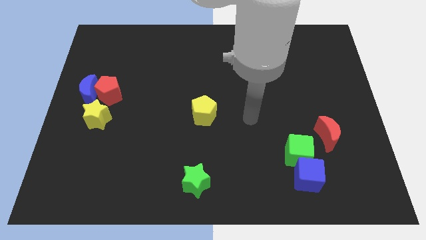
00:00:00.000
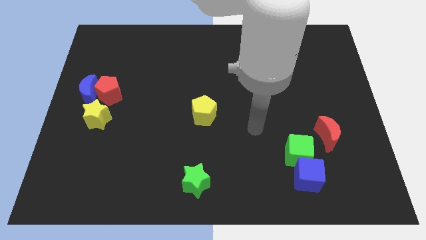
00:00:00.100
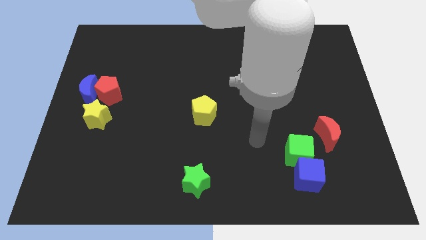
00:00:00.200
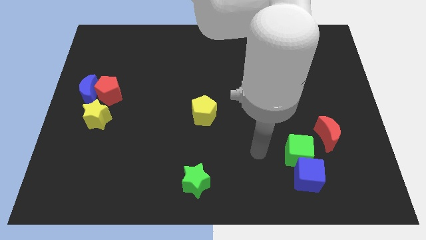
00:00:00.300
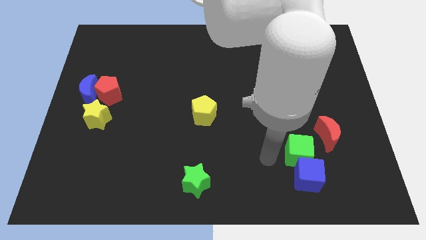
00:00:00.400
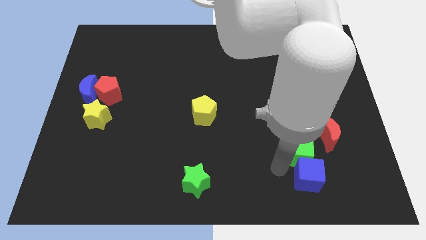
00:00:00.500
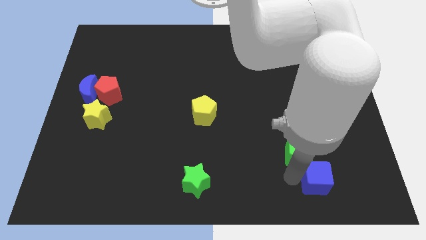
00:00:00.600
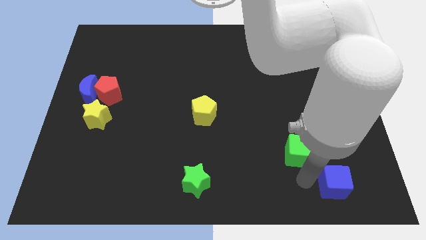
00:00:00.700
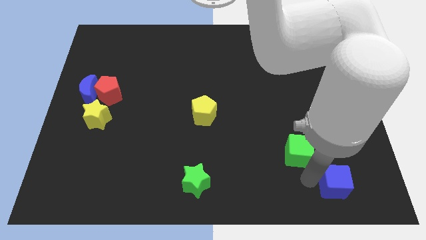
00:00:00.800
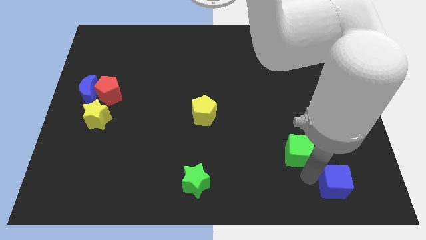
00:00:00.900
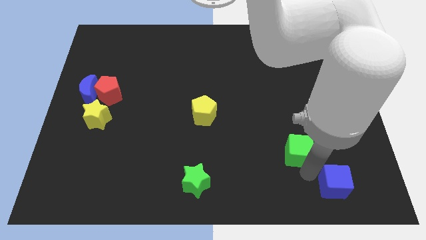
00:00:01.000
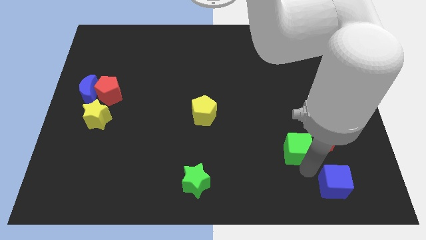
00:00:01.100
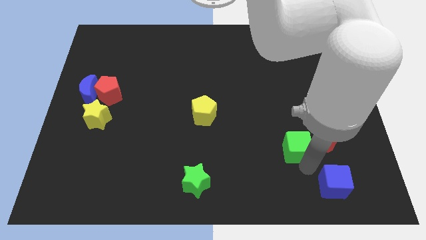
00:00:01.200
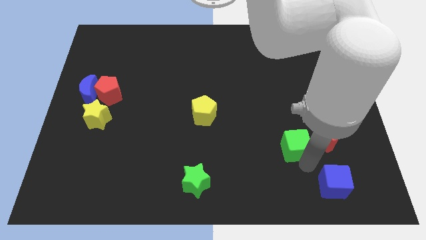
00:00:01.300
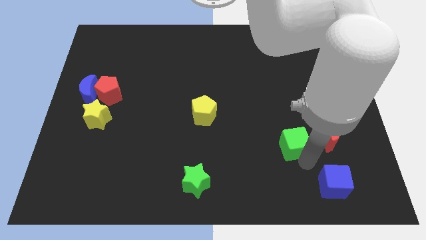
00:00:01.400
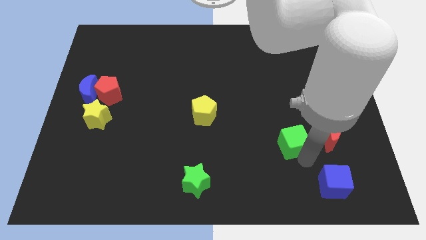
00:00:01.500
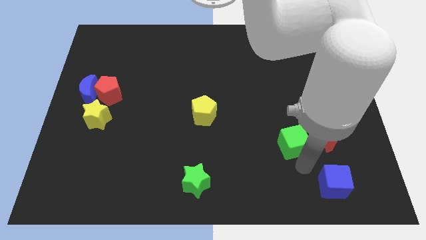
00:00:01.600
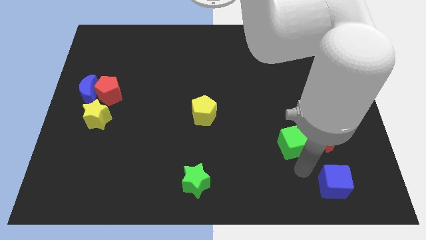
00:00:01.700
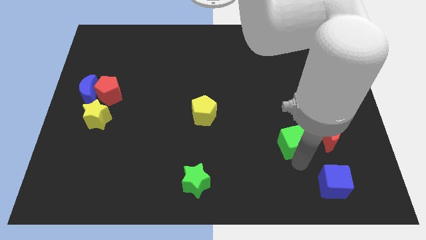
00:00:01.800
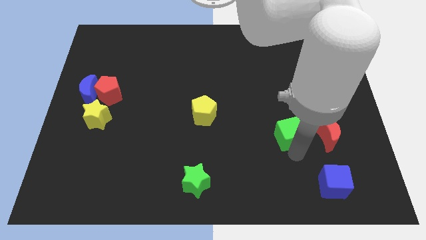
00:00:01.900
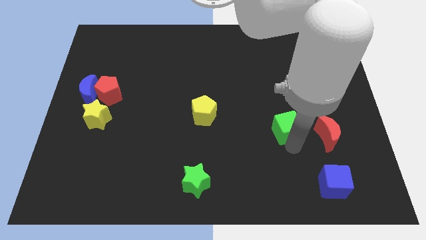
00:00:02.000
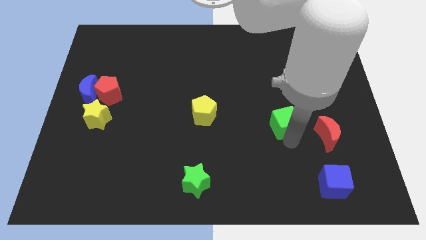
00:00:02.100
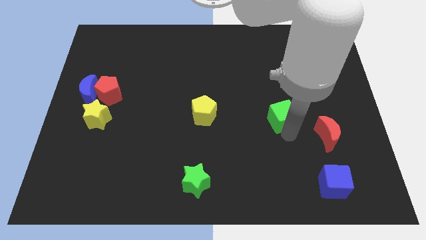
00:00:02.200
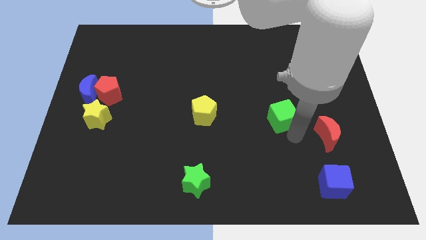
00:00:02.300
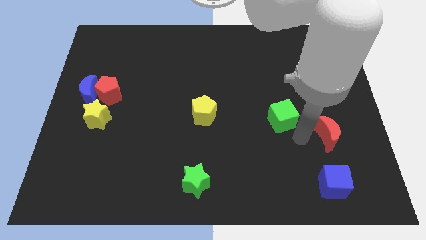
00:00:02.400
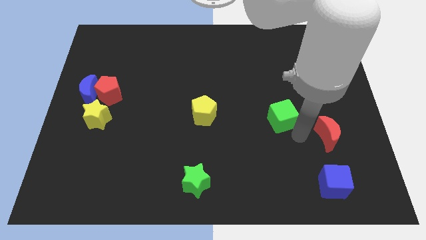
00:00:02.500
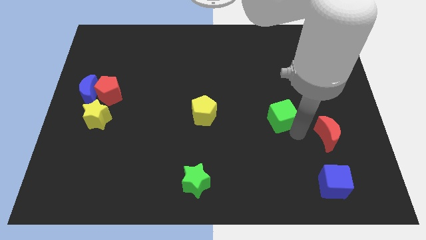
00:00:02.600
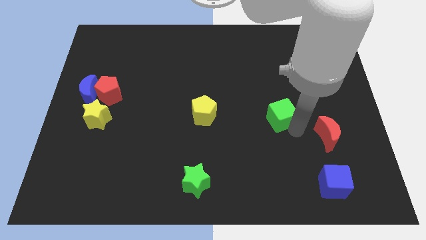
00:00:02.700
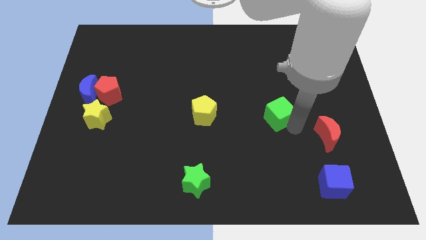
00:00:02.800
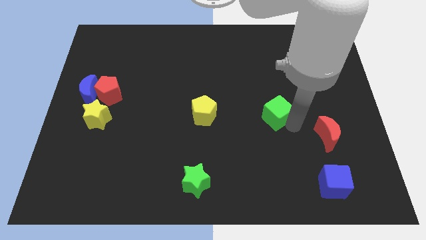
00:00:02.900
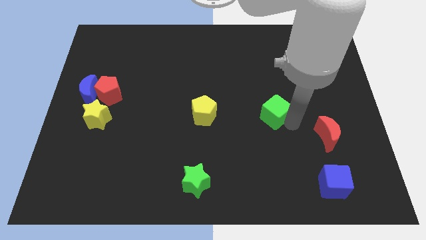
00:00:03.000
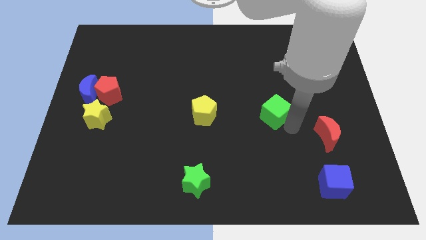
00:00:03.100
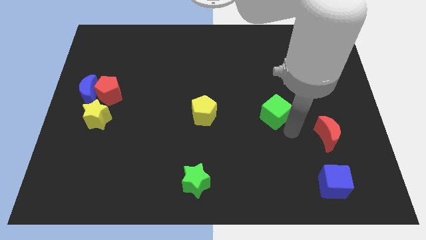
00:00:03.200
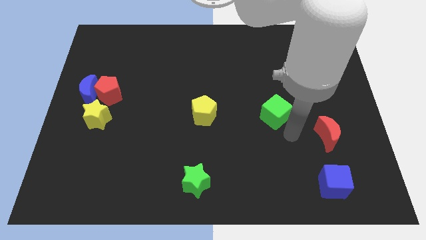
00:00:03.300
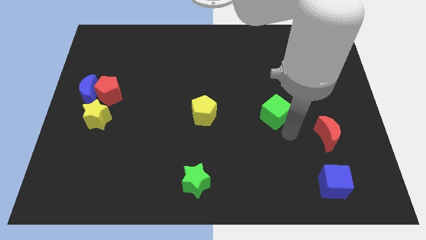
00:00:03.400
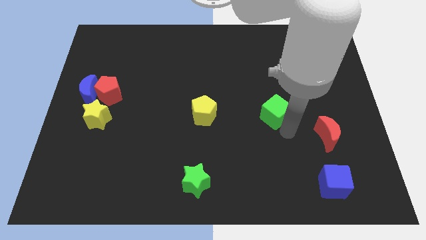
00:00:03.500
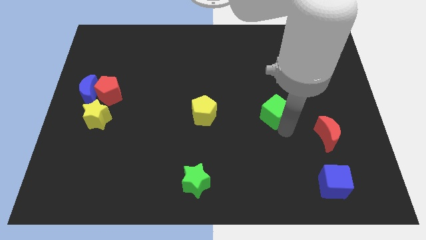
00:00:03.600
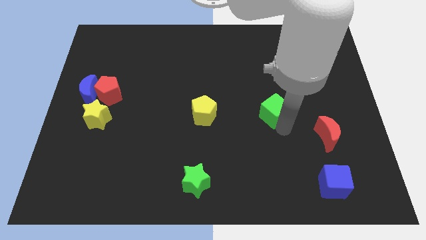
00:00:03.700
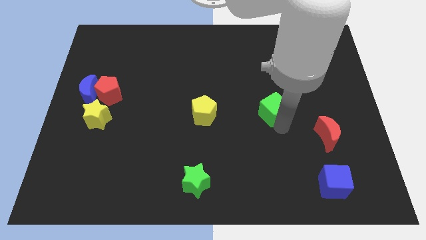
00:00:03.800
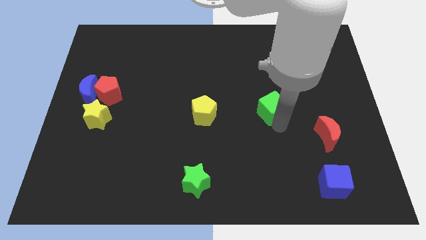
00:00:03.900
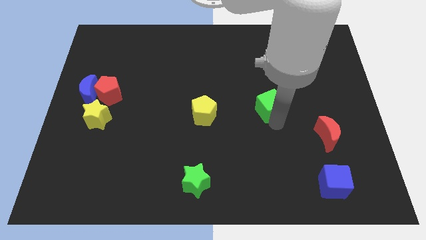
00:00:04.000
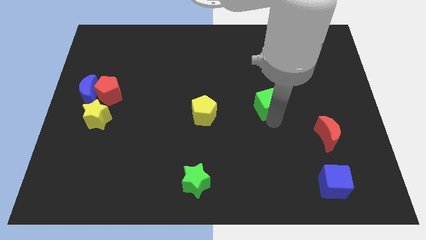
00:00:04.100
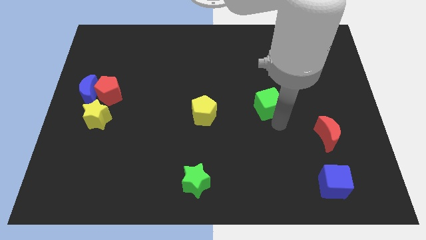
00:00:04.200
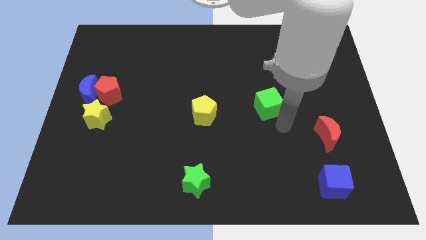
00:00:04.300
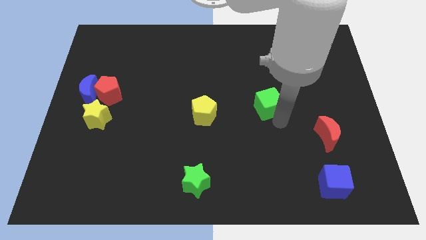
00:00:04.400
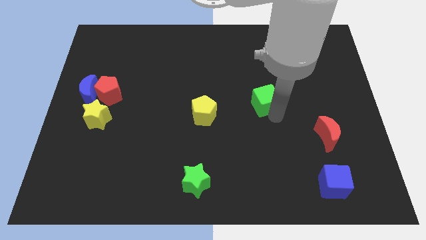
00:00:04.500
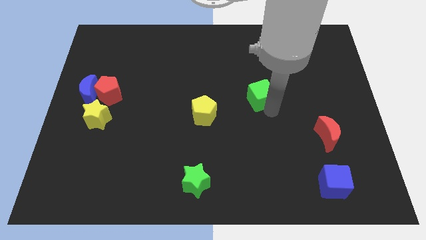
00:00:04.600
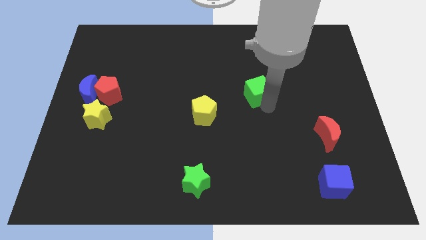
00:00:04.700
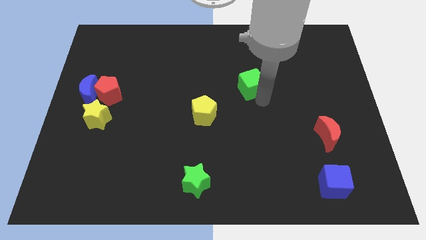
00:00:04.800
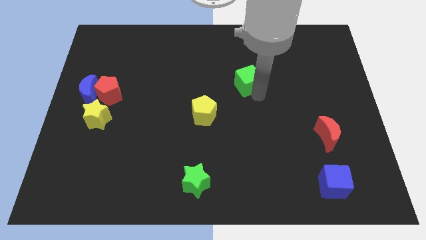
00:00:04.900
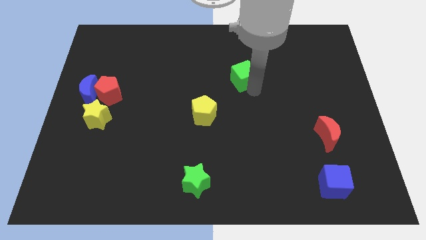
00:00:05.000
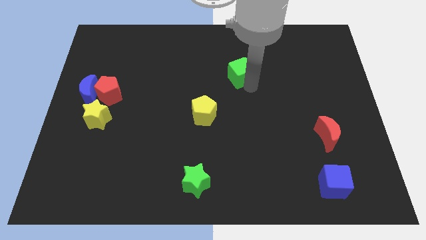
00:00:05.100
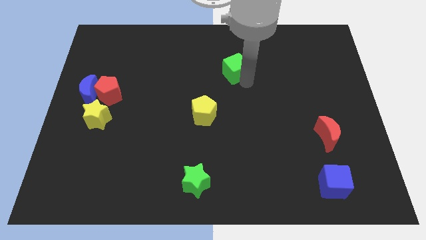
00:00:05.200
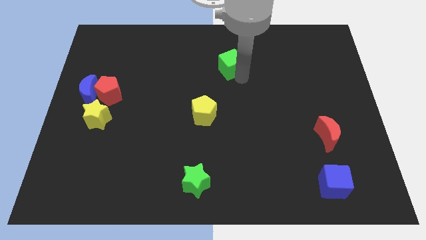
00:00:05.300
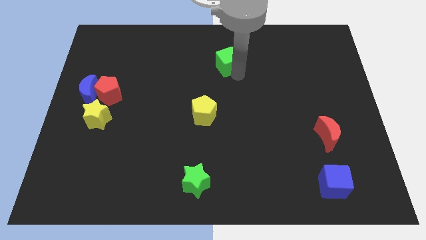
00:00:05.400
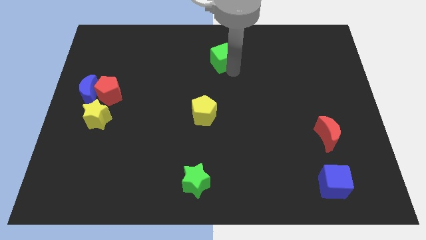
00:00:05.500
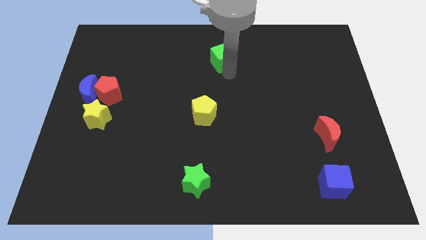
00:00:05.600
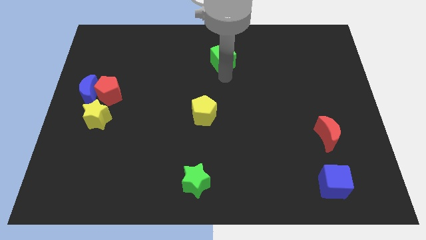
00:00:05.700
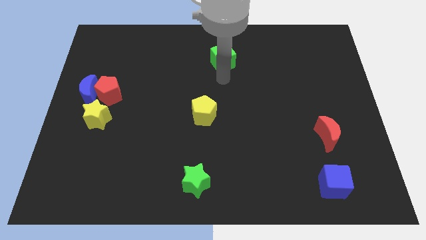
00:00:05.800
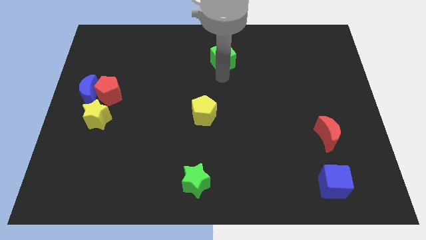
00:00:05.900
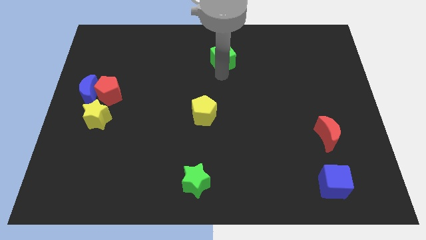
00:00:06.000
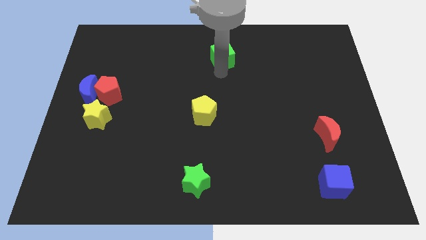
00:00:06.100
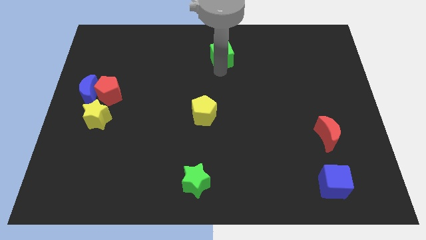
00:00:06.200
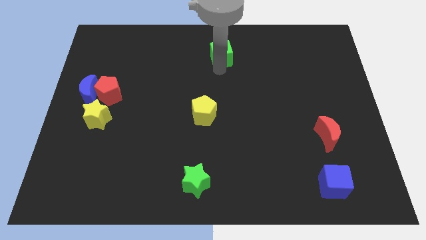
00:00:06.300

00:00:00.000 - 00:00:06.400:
slide the green cube to the towards your base

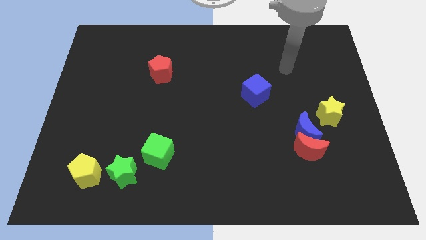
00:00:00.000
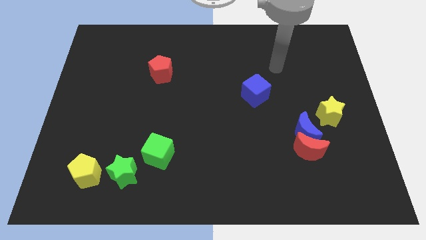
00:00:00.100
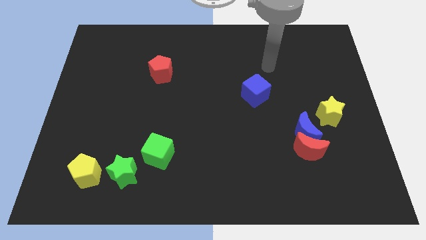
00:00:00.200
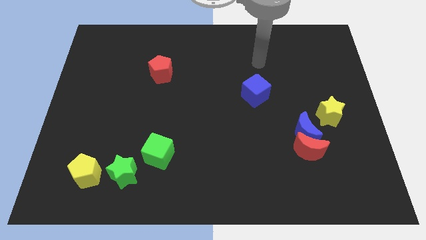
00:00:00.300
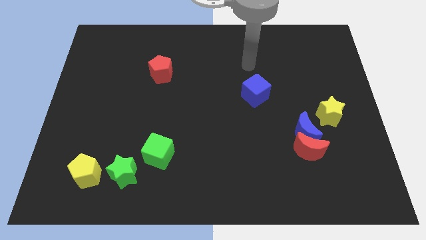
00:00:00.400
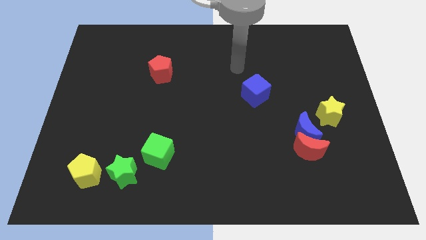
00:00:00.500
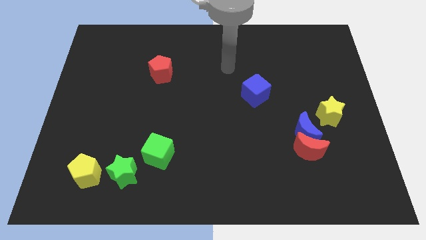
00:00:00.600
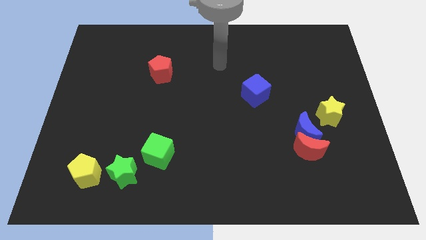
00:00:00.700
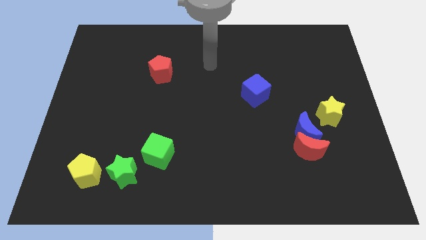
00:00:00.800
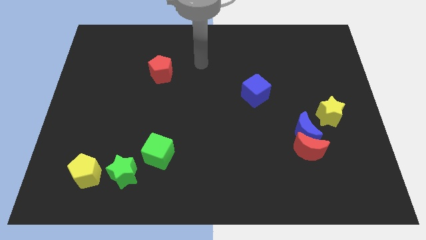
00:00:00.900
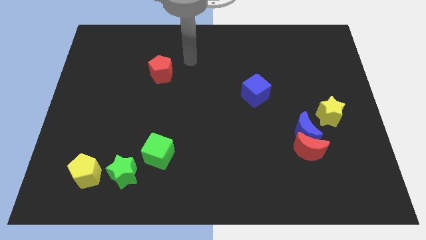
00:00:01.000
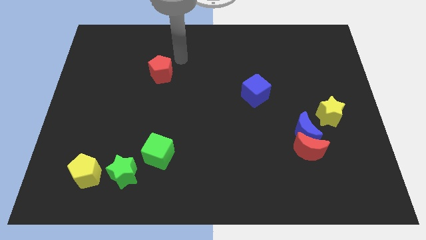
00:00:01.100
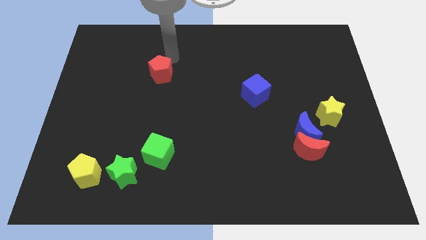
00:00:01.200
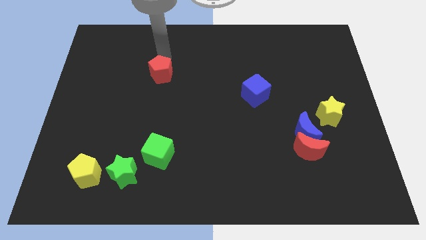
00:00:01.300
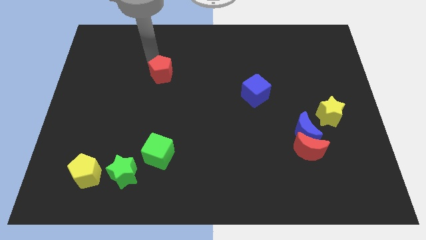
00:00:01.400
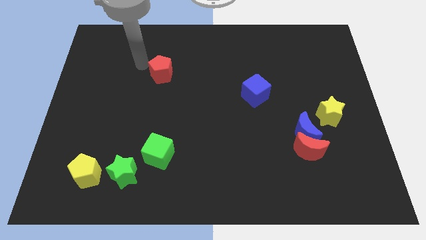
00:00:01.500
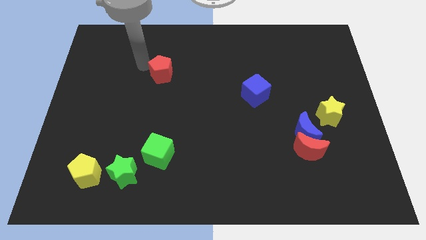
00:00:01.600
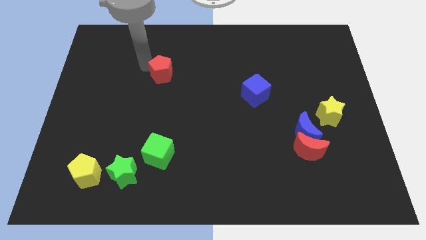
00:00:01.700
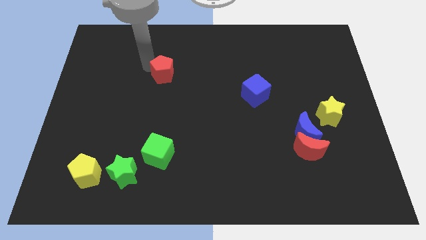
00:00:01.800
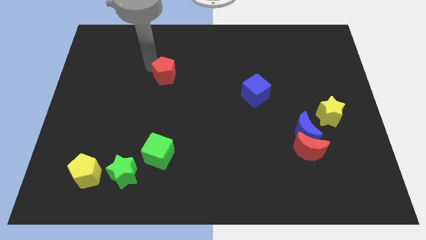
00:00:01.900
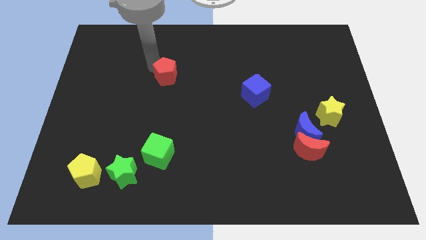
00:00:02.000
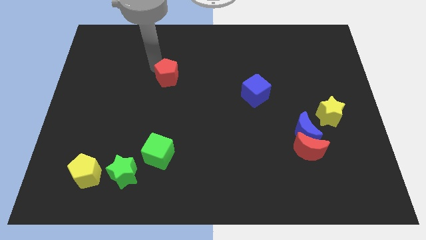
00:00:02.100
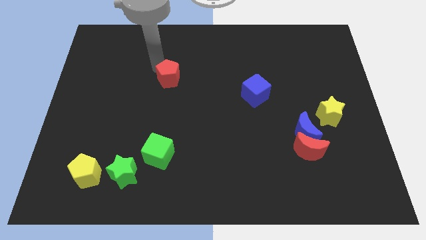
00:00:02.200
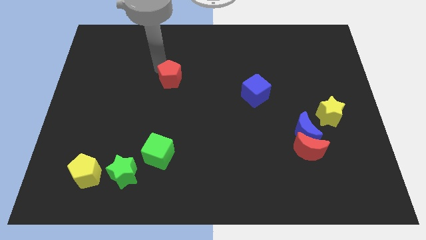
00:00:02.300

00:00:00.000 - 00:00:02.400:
slide the red pentagon to the middle of the board
